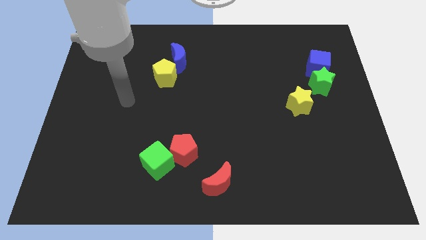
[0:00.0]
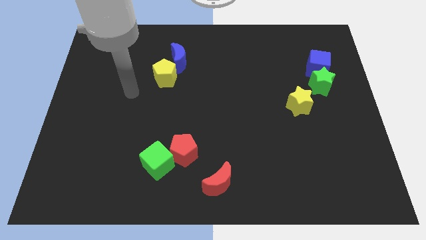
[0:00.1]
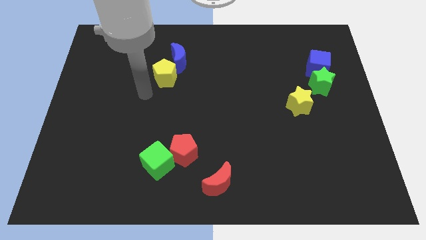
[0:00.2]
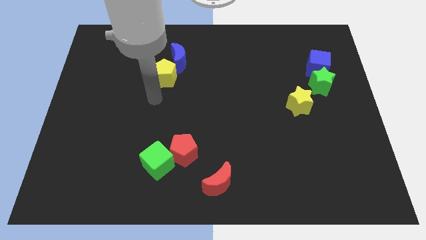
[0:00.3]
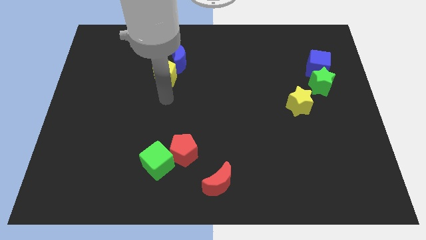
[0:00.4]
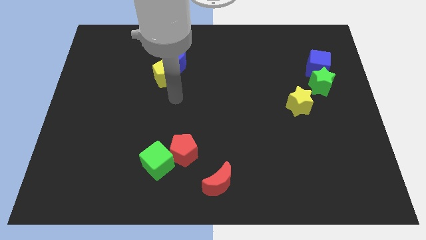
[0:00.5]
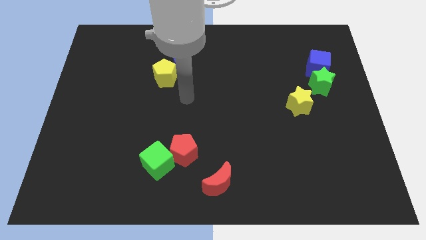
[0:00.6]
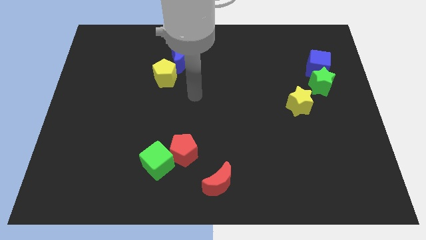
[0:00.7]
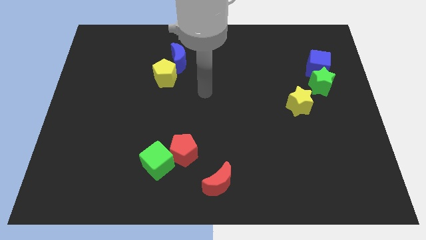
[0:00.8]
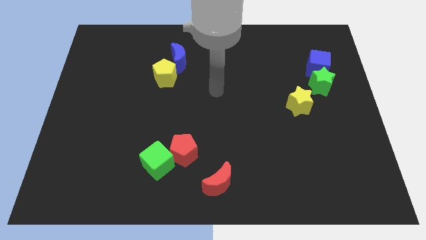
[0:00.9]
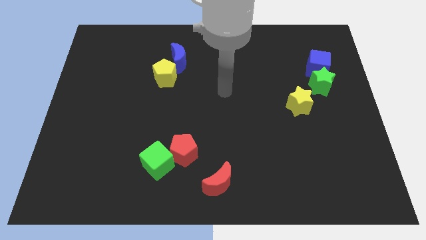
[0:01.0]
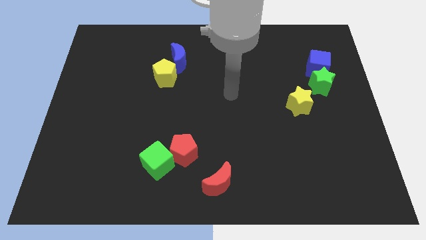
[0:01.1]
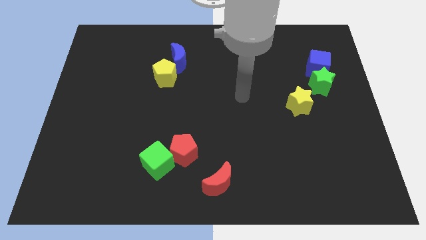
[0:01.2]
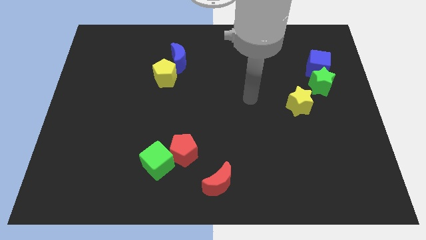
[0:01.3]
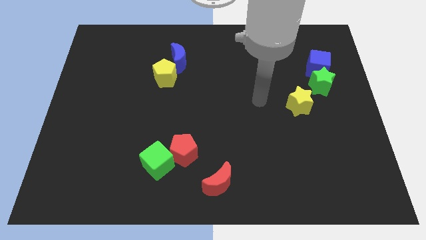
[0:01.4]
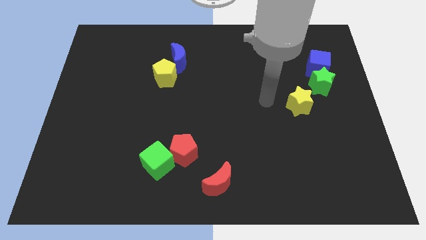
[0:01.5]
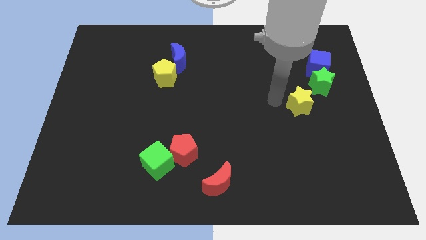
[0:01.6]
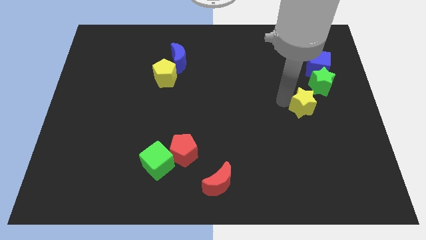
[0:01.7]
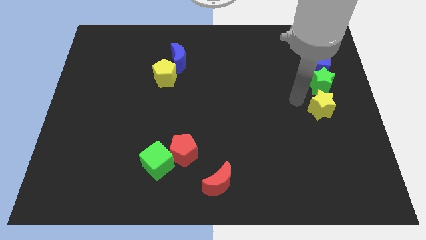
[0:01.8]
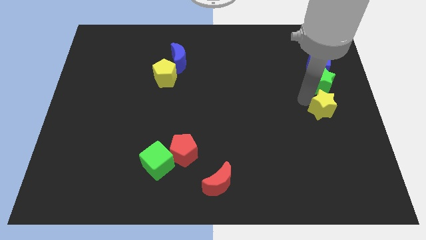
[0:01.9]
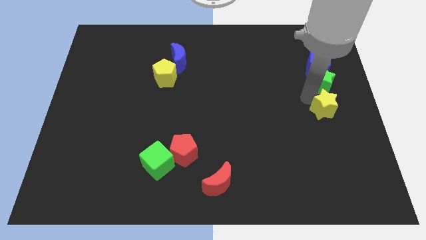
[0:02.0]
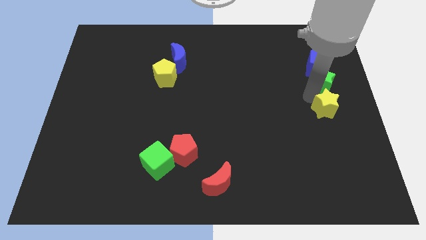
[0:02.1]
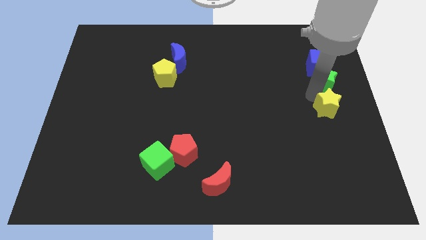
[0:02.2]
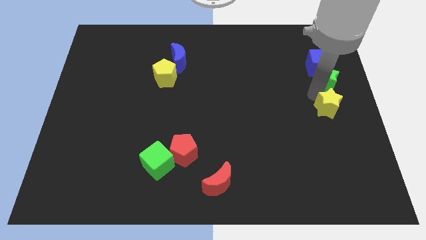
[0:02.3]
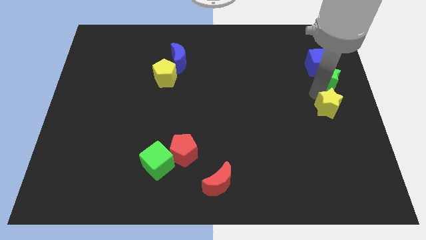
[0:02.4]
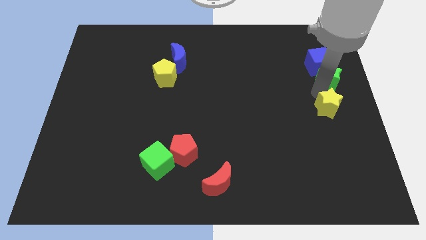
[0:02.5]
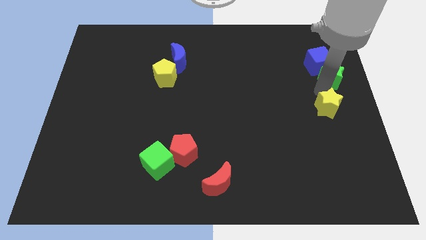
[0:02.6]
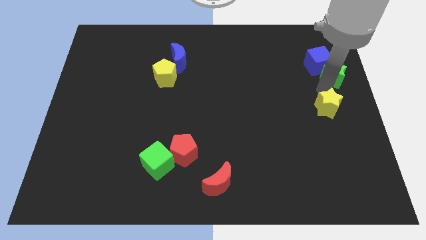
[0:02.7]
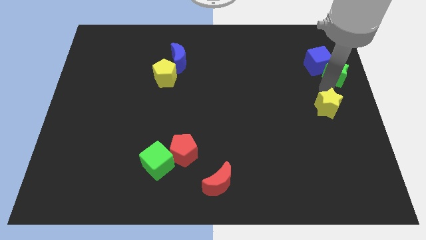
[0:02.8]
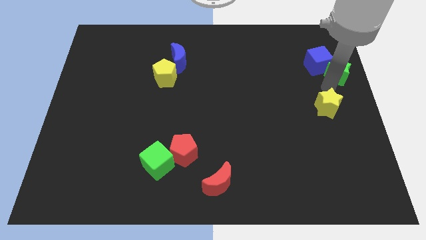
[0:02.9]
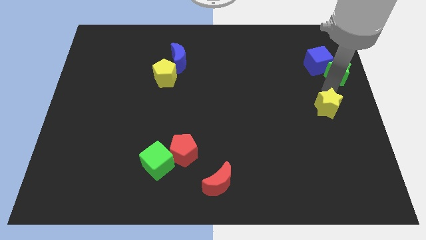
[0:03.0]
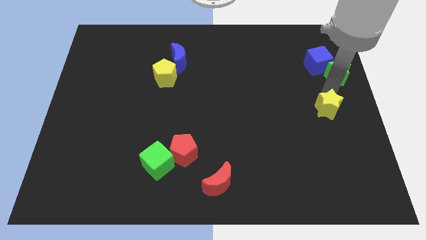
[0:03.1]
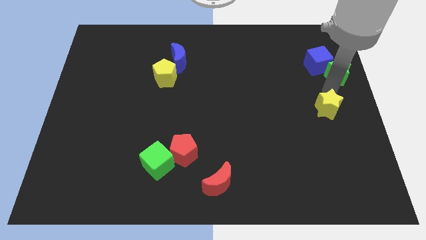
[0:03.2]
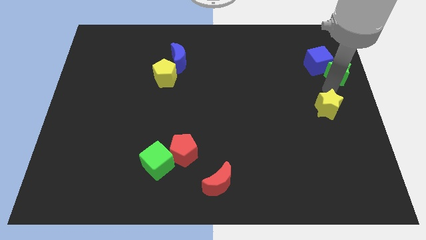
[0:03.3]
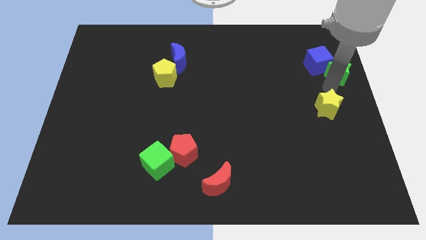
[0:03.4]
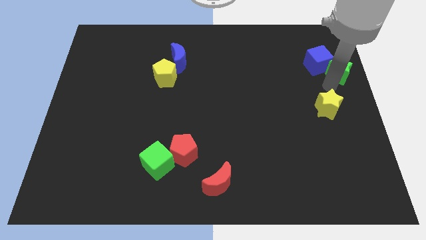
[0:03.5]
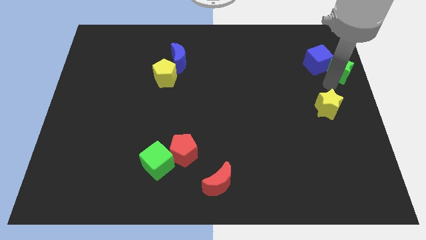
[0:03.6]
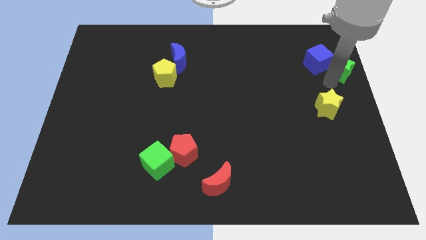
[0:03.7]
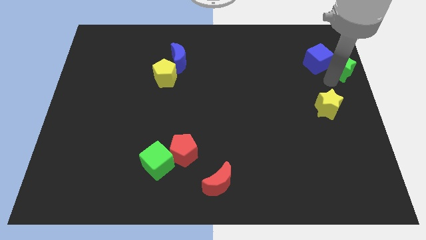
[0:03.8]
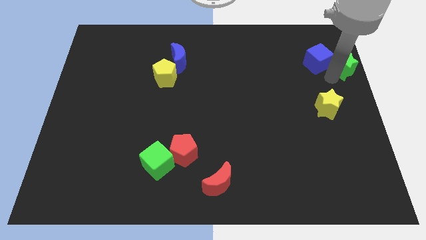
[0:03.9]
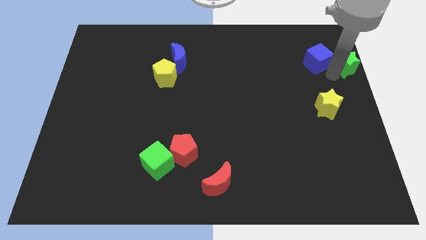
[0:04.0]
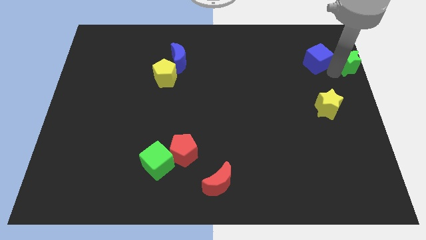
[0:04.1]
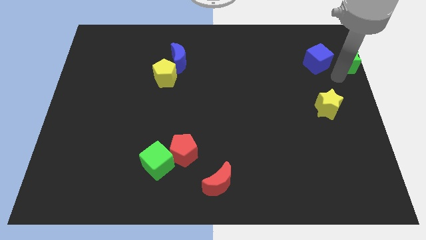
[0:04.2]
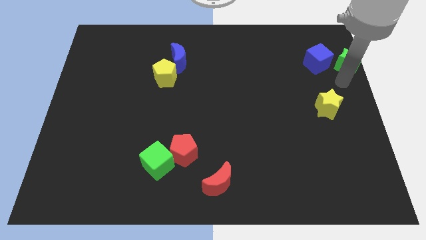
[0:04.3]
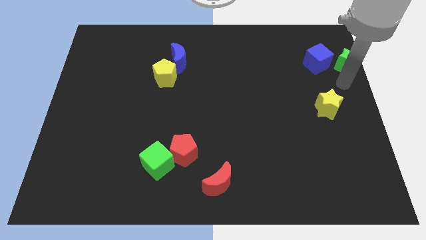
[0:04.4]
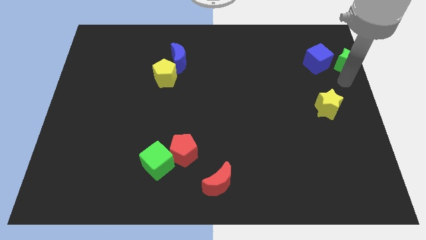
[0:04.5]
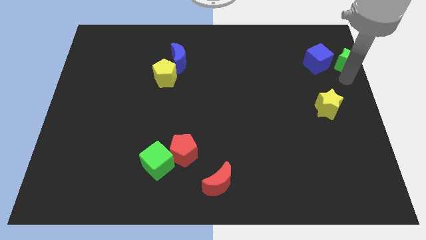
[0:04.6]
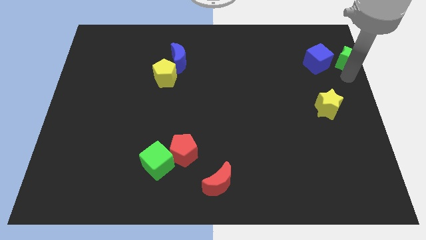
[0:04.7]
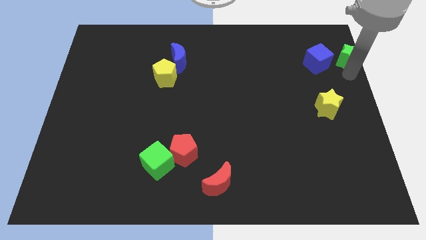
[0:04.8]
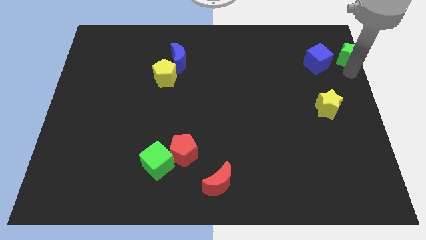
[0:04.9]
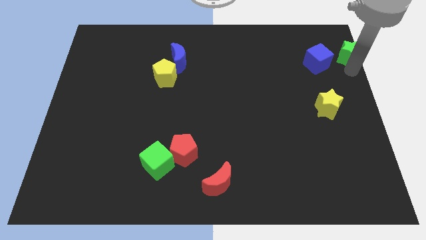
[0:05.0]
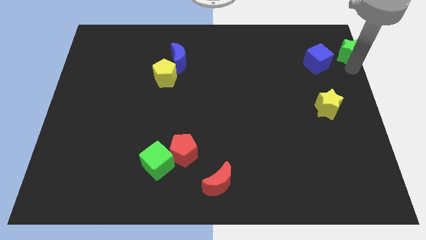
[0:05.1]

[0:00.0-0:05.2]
put the green star to the top right

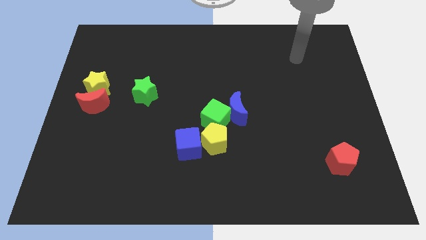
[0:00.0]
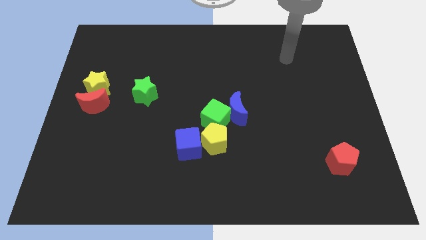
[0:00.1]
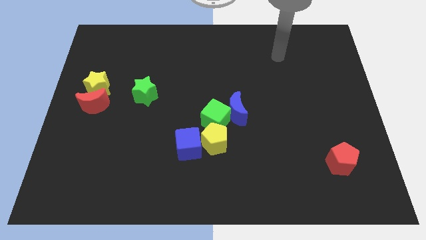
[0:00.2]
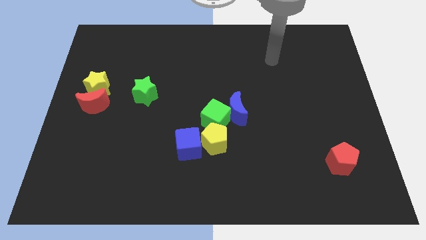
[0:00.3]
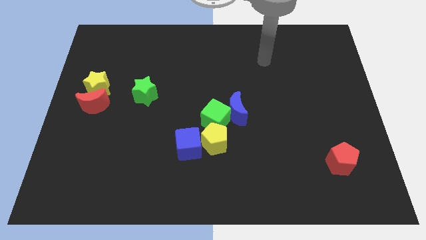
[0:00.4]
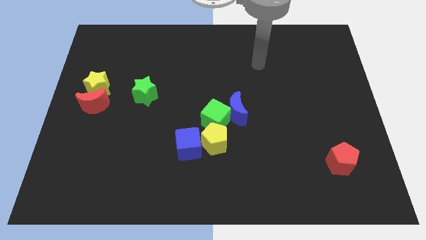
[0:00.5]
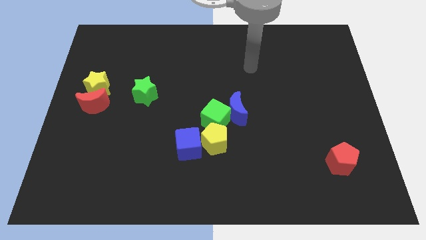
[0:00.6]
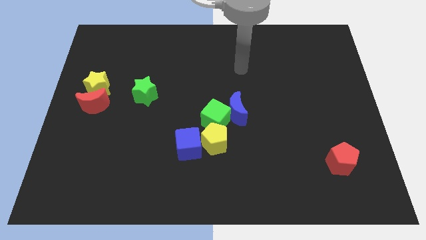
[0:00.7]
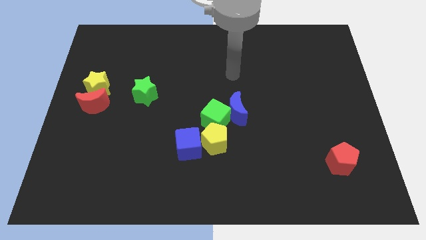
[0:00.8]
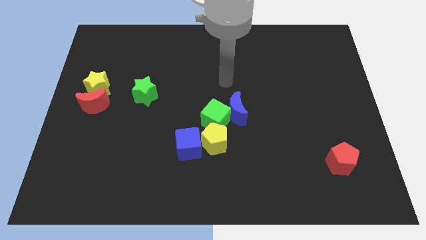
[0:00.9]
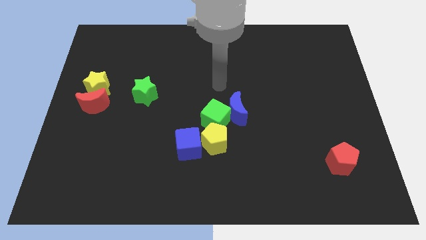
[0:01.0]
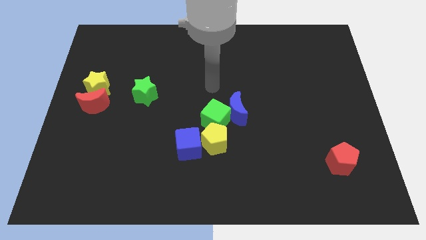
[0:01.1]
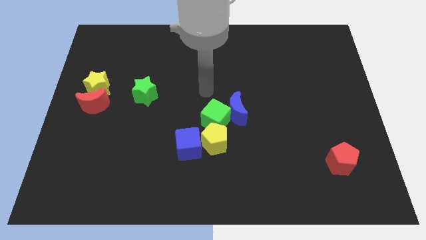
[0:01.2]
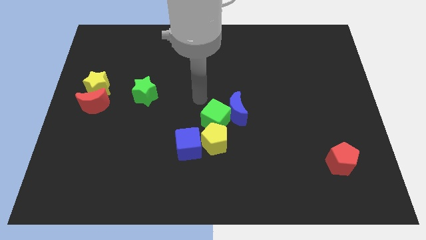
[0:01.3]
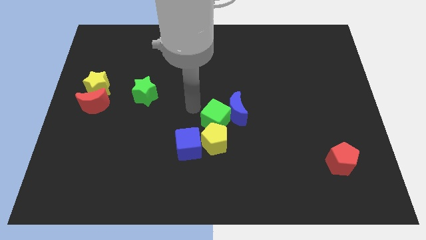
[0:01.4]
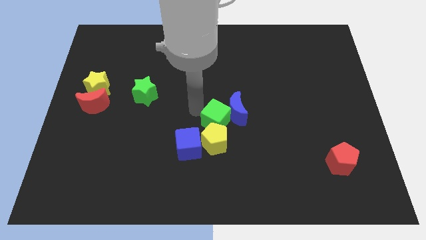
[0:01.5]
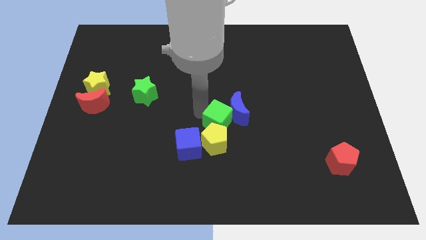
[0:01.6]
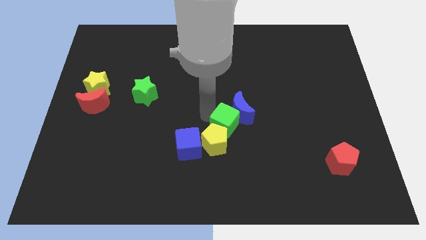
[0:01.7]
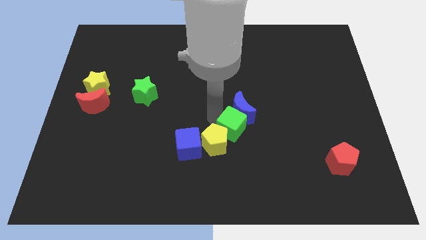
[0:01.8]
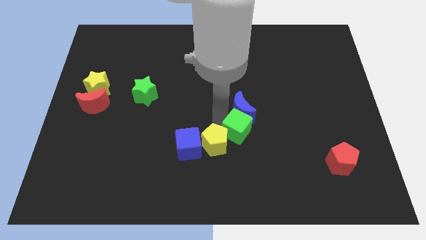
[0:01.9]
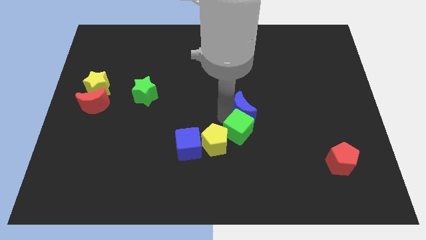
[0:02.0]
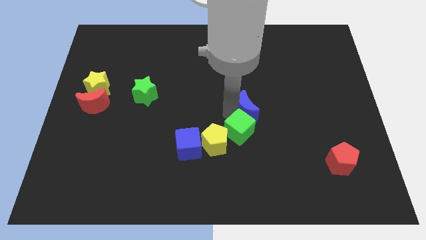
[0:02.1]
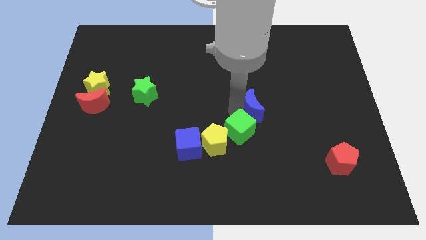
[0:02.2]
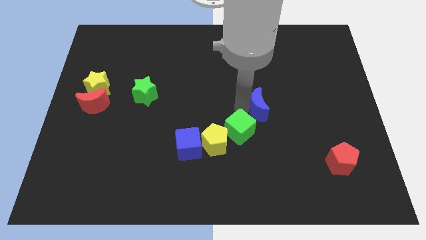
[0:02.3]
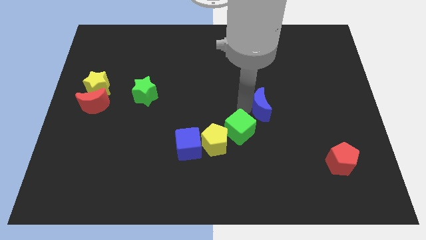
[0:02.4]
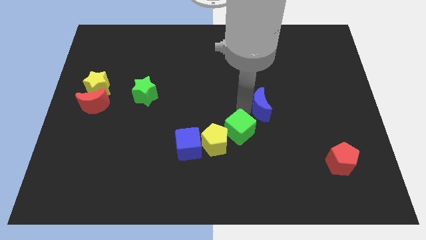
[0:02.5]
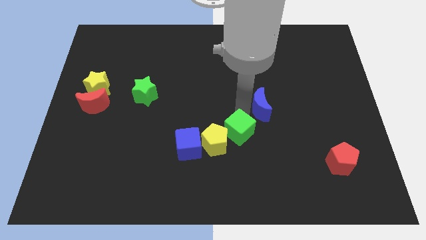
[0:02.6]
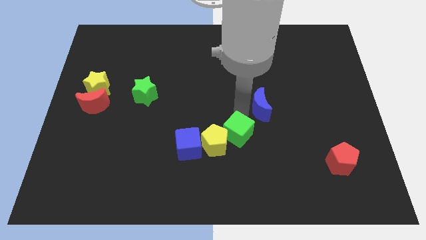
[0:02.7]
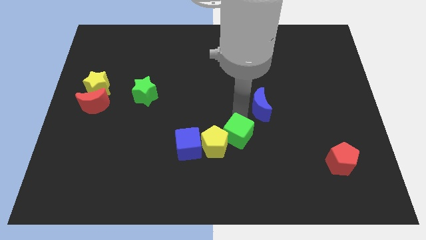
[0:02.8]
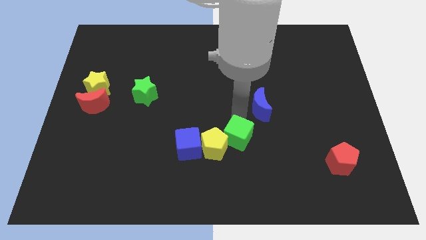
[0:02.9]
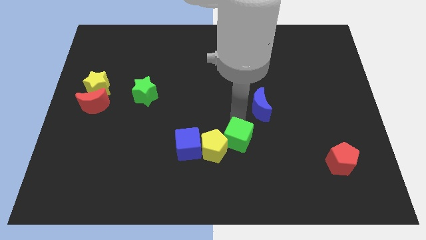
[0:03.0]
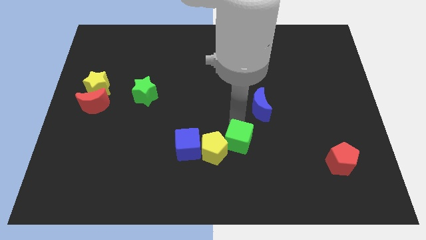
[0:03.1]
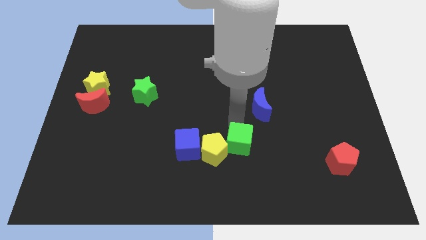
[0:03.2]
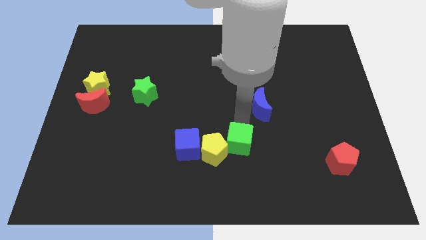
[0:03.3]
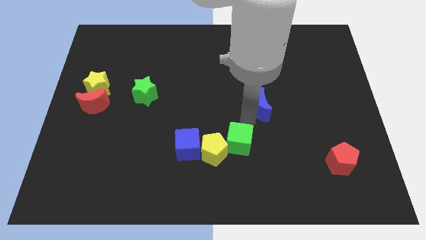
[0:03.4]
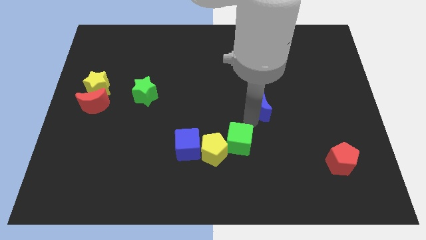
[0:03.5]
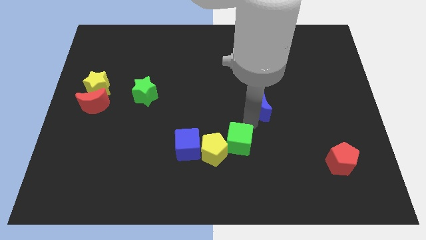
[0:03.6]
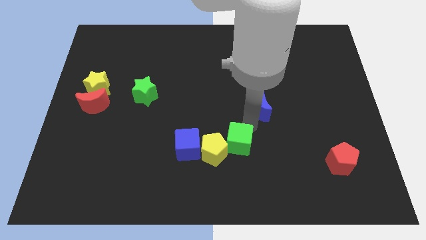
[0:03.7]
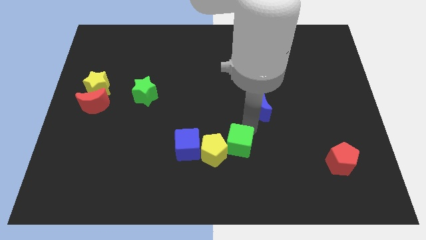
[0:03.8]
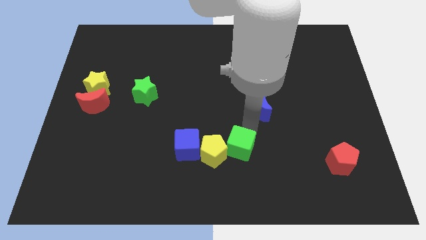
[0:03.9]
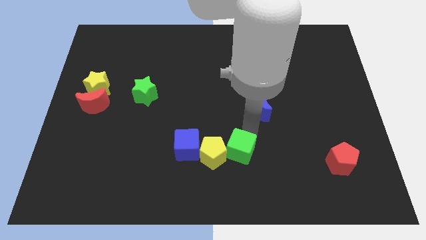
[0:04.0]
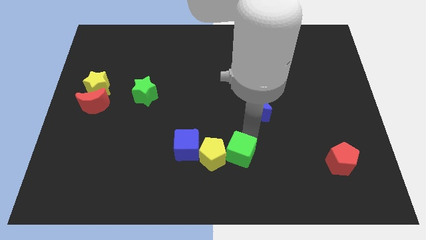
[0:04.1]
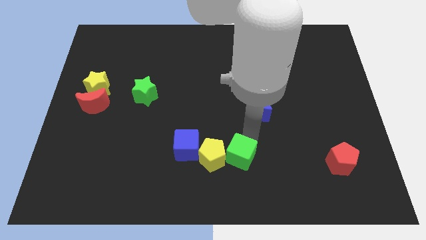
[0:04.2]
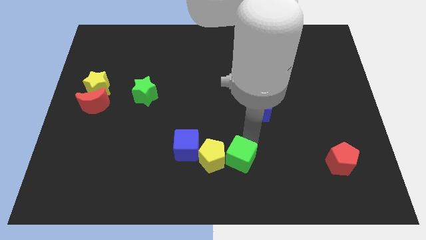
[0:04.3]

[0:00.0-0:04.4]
put the green cube to the bottom
